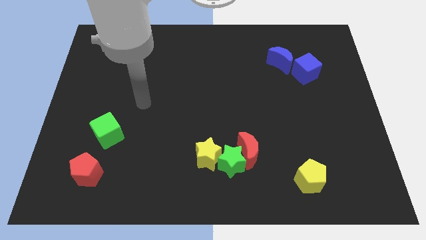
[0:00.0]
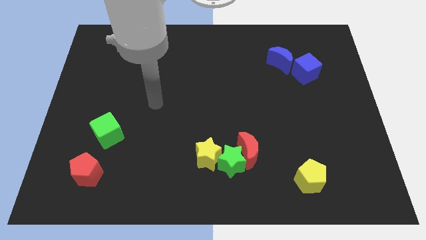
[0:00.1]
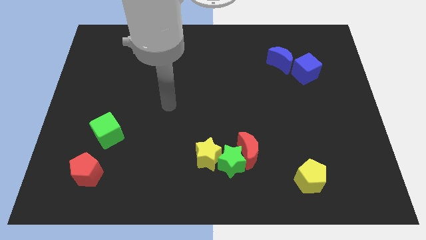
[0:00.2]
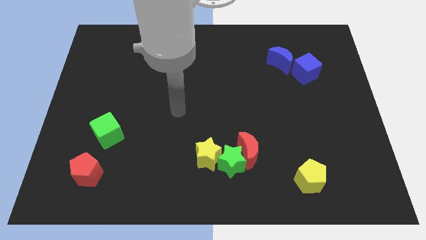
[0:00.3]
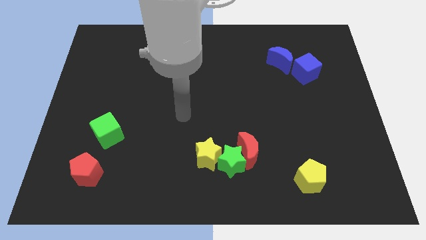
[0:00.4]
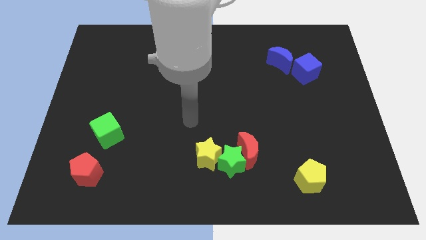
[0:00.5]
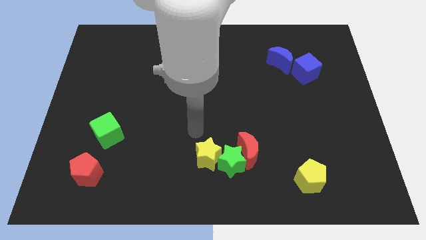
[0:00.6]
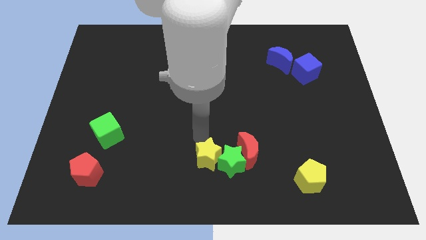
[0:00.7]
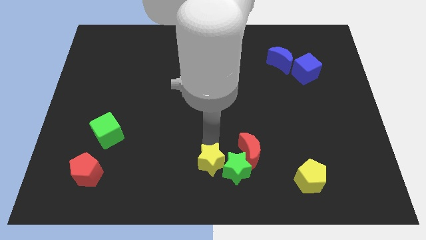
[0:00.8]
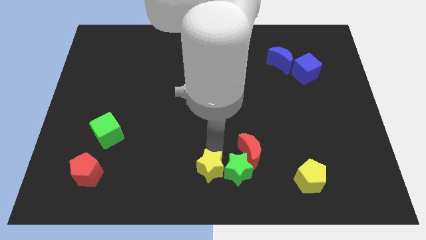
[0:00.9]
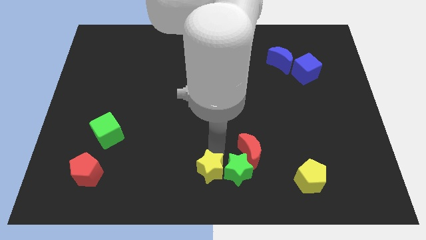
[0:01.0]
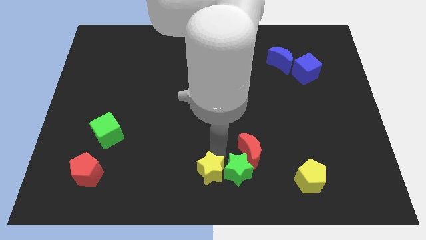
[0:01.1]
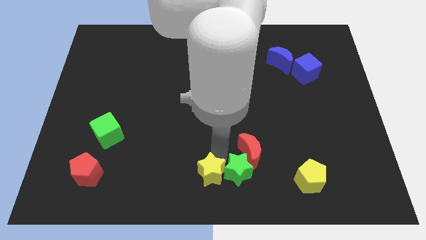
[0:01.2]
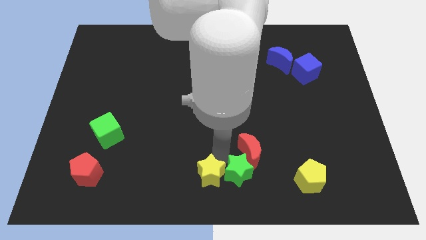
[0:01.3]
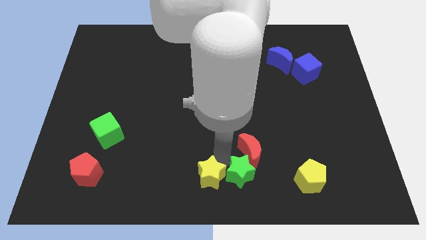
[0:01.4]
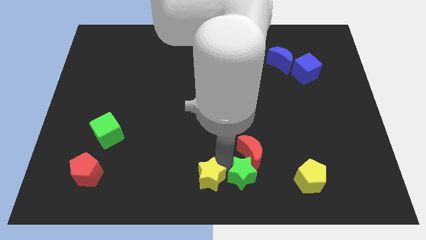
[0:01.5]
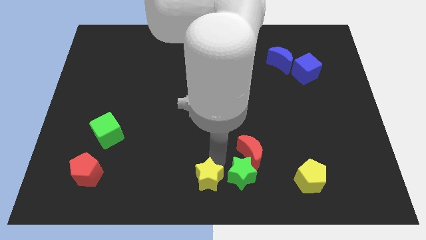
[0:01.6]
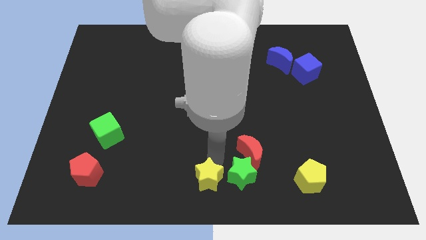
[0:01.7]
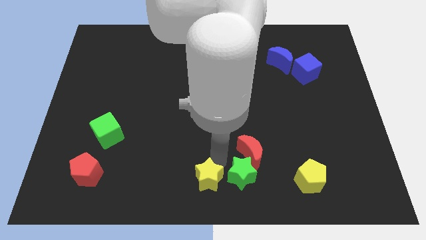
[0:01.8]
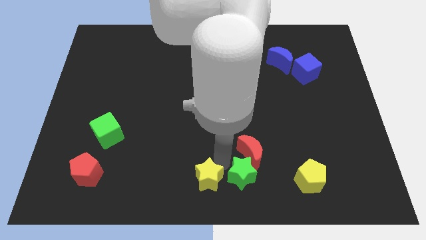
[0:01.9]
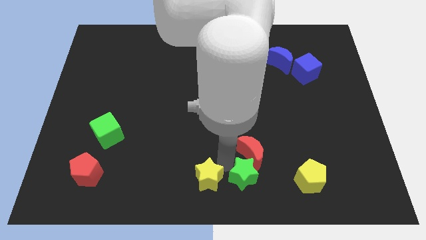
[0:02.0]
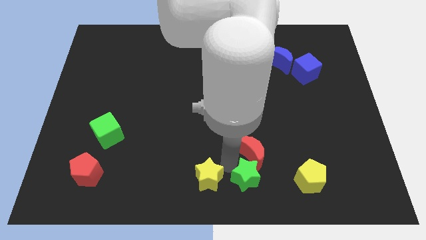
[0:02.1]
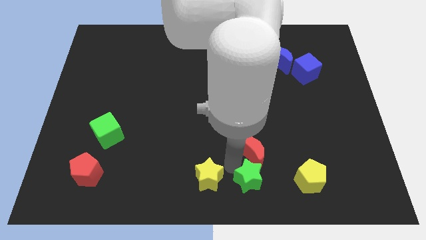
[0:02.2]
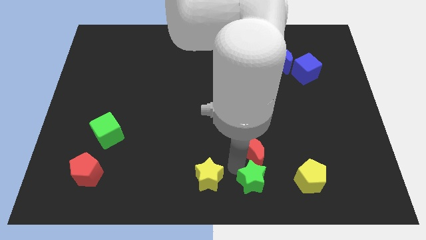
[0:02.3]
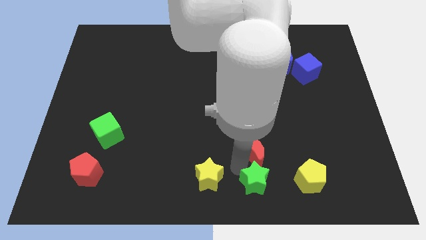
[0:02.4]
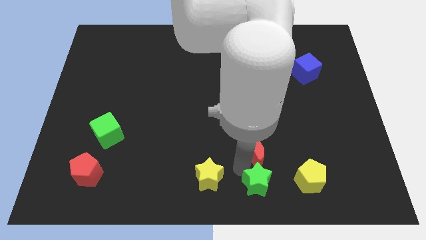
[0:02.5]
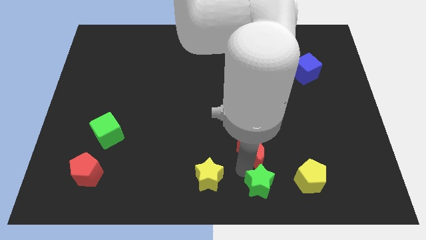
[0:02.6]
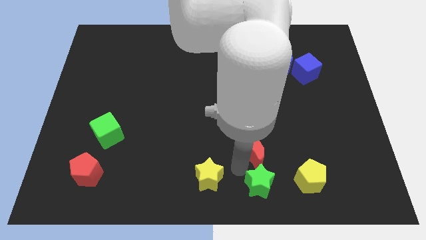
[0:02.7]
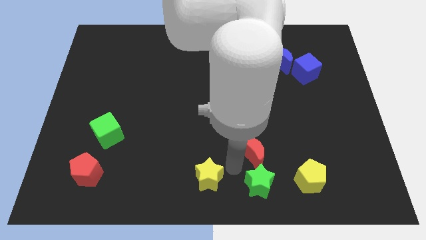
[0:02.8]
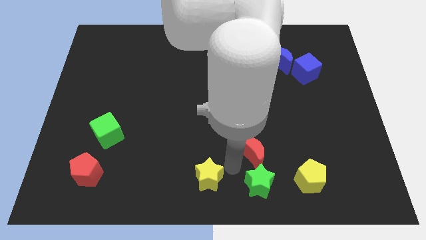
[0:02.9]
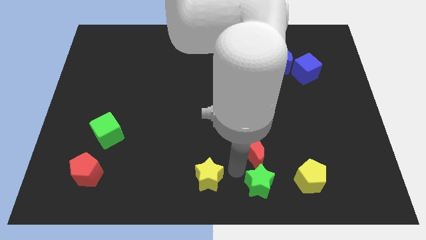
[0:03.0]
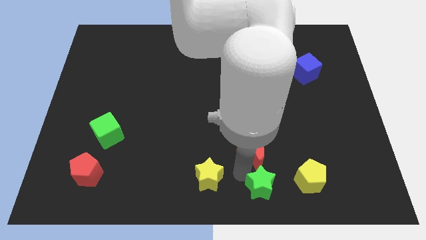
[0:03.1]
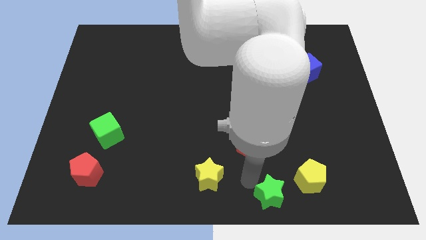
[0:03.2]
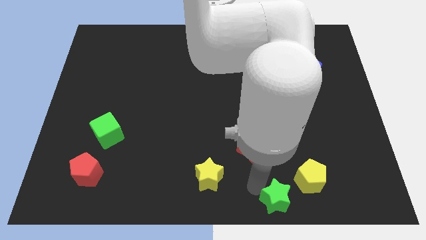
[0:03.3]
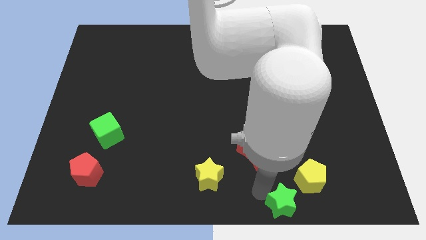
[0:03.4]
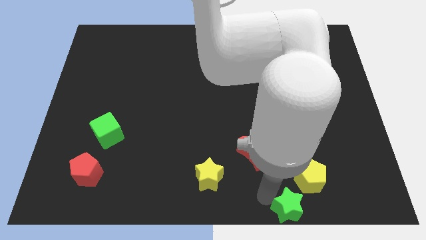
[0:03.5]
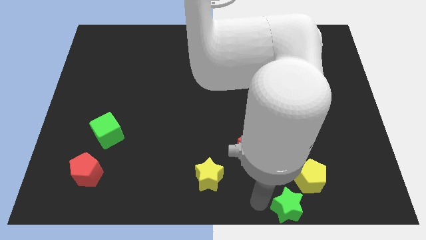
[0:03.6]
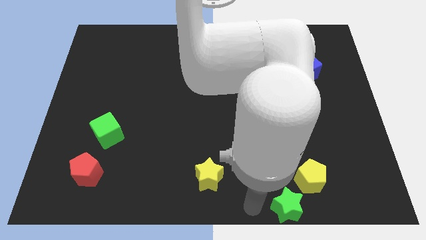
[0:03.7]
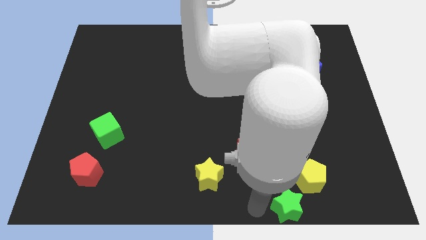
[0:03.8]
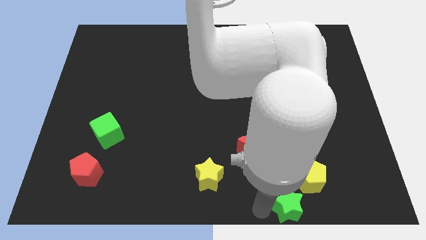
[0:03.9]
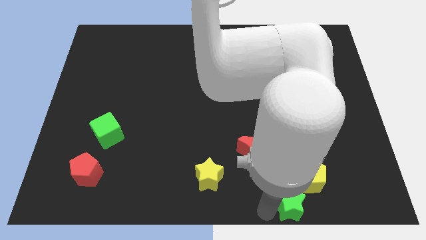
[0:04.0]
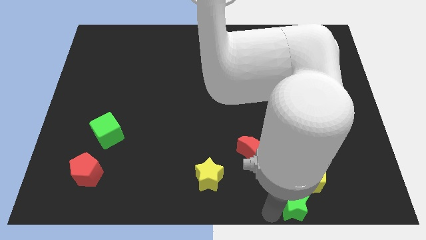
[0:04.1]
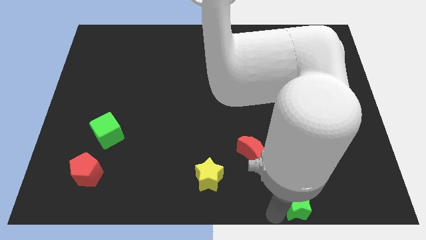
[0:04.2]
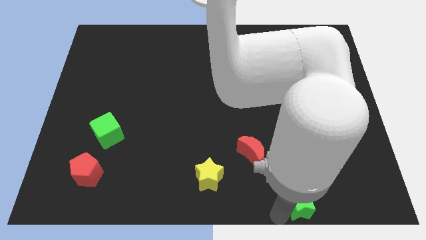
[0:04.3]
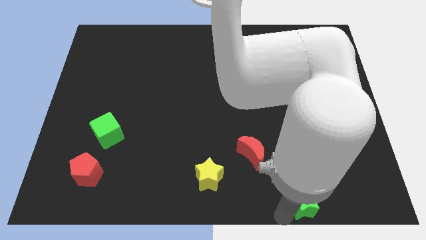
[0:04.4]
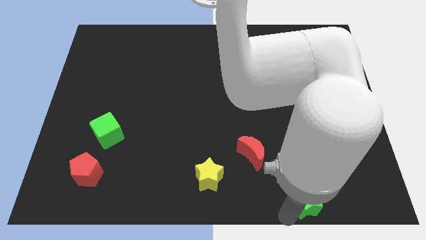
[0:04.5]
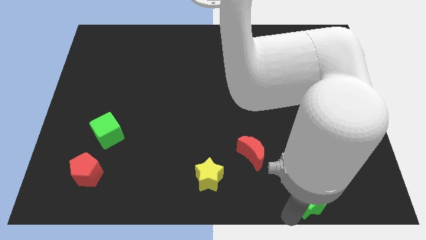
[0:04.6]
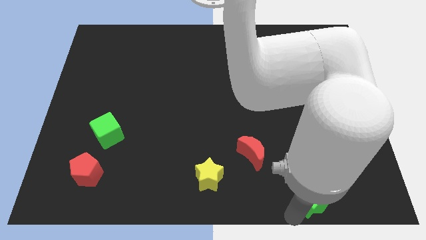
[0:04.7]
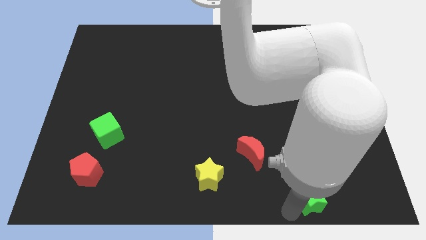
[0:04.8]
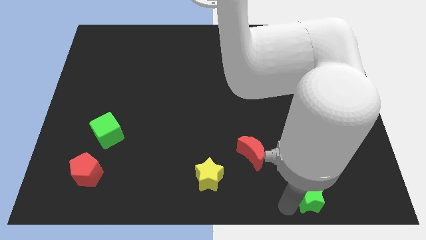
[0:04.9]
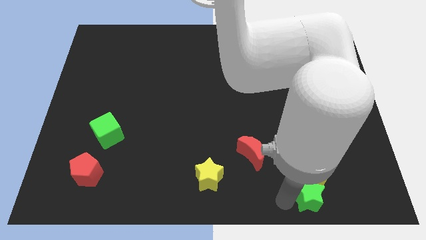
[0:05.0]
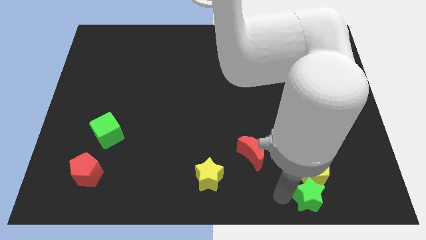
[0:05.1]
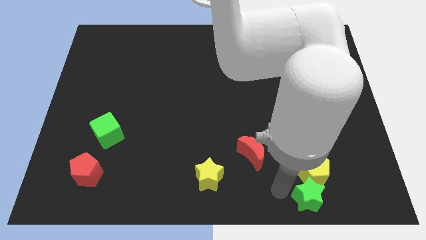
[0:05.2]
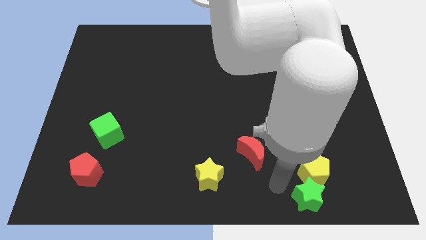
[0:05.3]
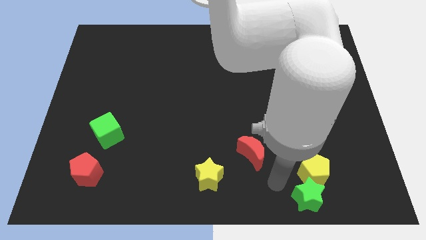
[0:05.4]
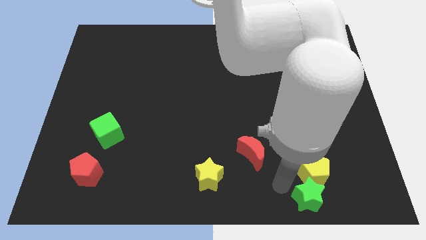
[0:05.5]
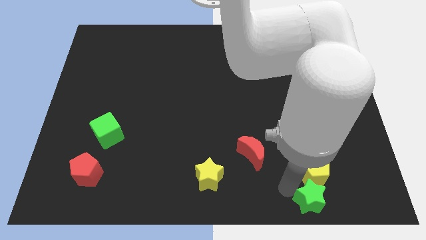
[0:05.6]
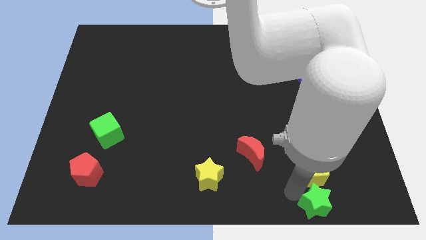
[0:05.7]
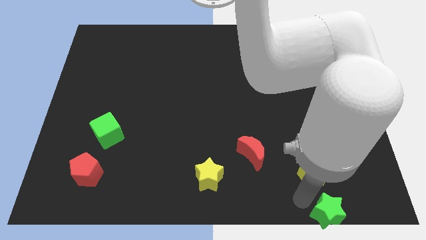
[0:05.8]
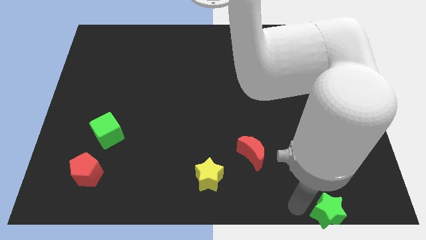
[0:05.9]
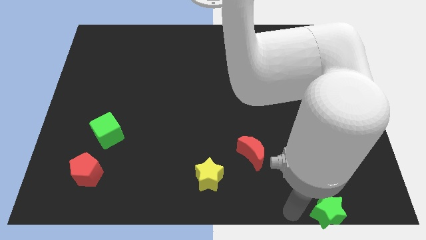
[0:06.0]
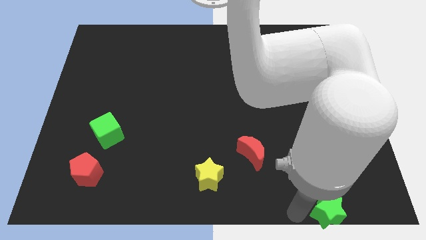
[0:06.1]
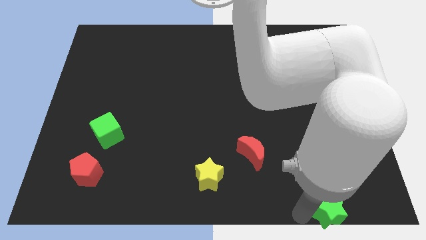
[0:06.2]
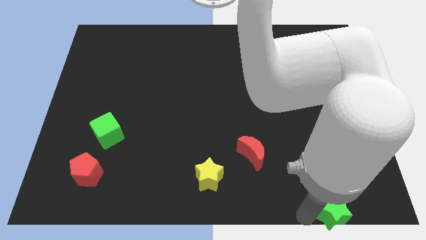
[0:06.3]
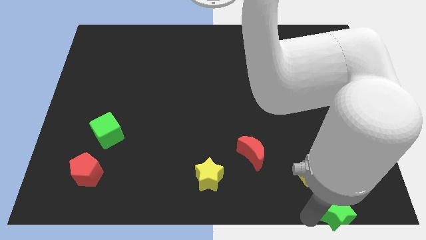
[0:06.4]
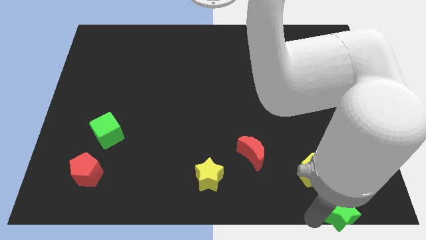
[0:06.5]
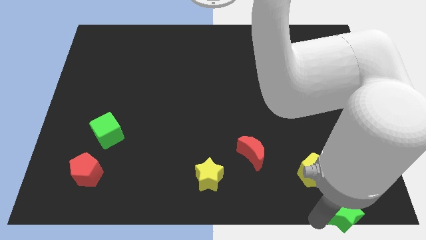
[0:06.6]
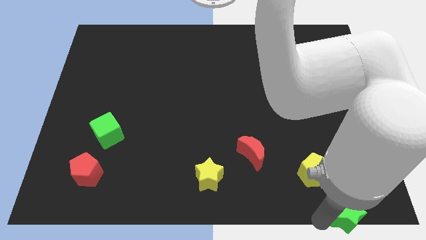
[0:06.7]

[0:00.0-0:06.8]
push the green star to the bottom right of the board

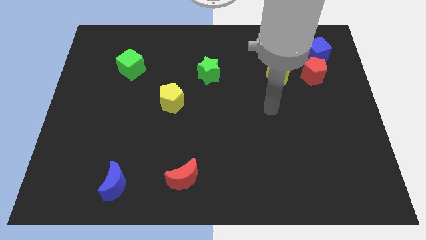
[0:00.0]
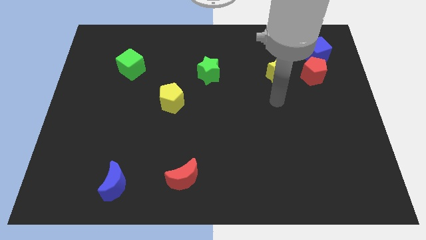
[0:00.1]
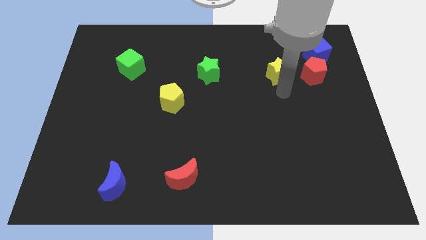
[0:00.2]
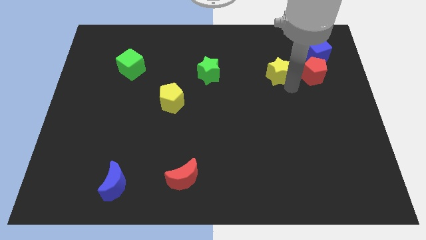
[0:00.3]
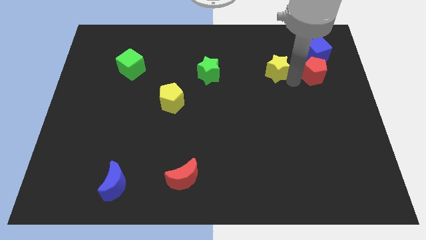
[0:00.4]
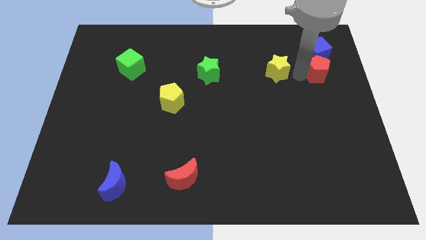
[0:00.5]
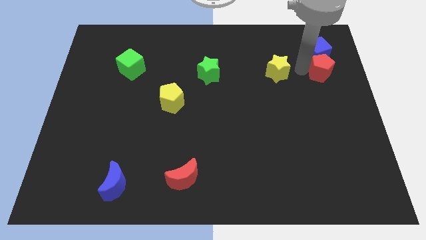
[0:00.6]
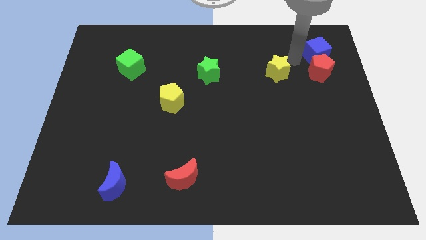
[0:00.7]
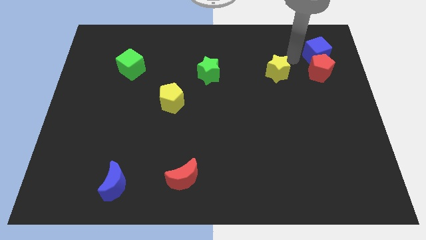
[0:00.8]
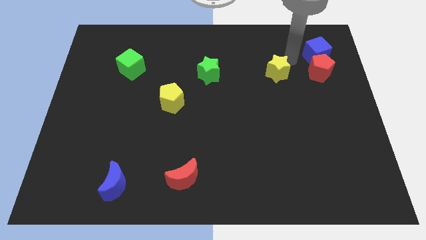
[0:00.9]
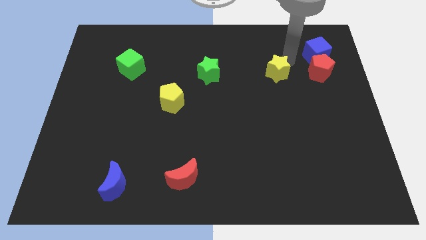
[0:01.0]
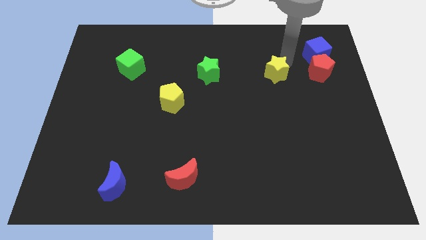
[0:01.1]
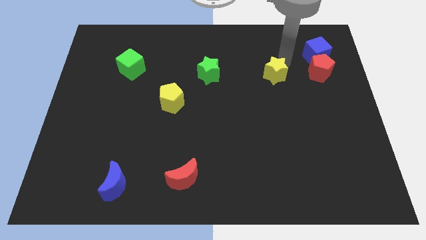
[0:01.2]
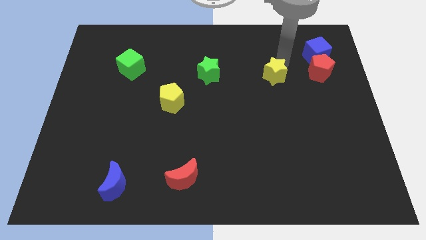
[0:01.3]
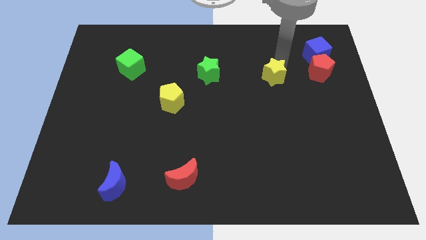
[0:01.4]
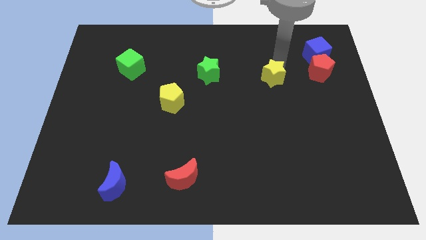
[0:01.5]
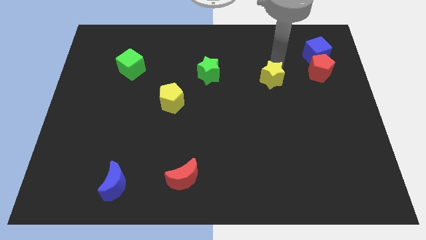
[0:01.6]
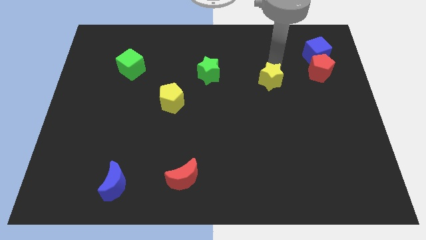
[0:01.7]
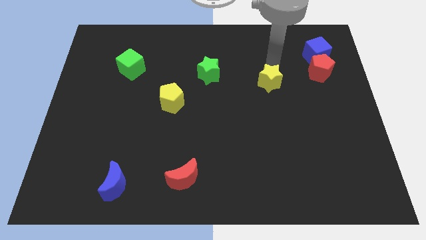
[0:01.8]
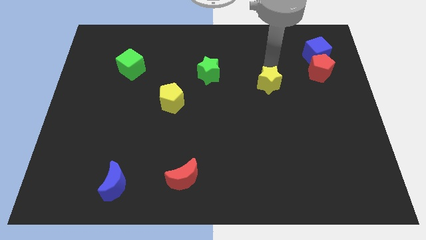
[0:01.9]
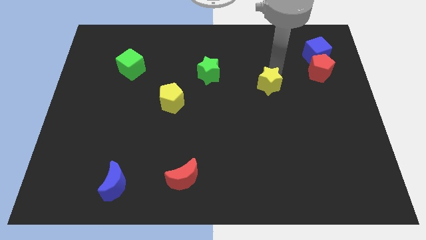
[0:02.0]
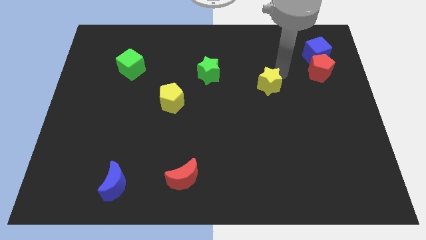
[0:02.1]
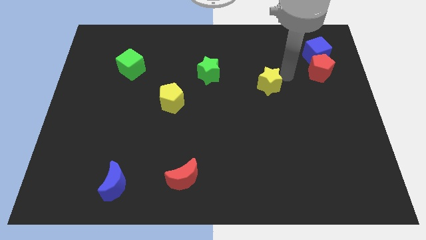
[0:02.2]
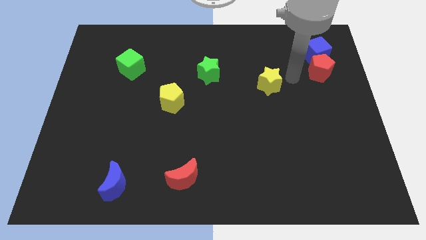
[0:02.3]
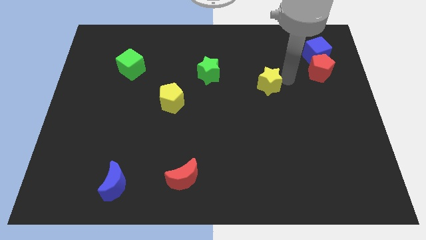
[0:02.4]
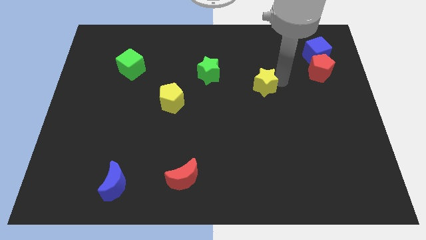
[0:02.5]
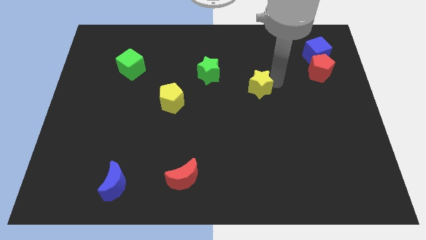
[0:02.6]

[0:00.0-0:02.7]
move the yellow star to the middle
